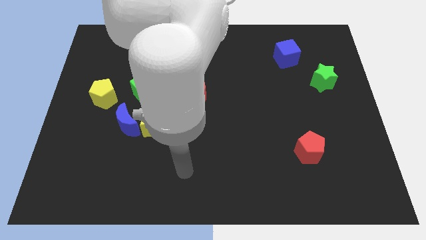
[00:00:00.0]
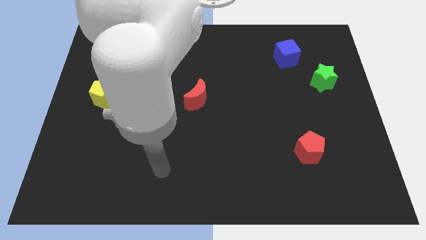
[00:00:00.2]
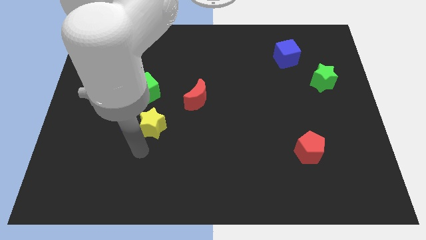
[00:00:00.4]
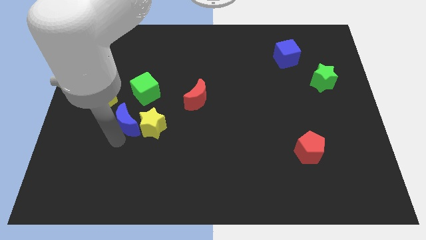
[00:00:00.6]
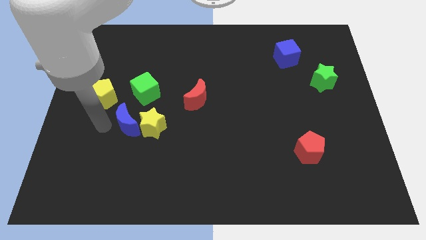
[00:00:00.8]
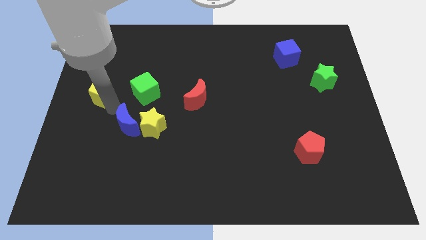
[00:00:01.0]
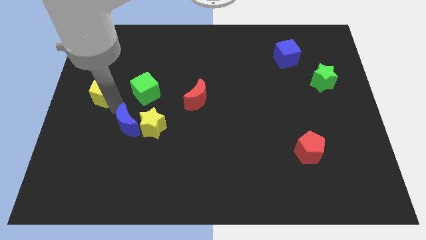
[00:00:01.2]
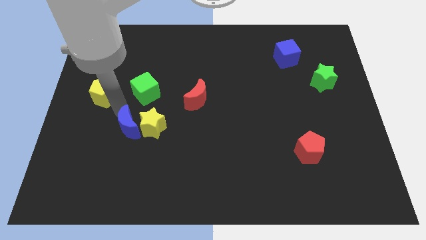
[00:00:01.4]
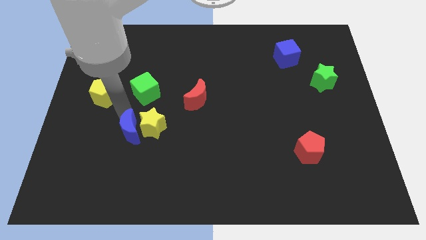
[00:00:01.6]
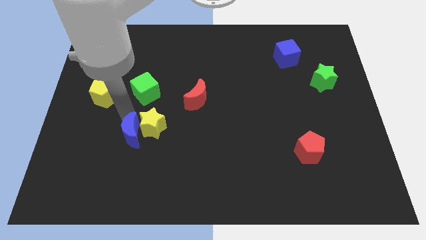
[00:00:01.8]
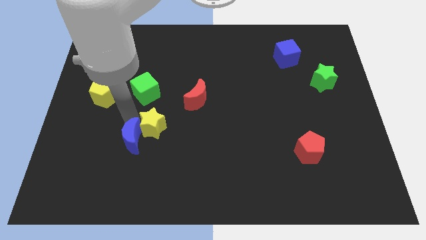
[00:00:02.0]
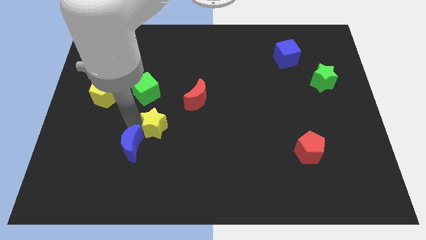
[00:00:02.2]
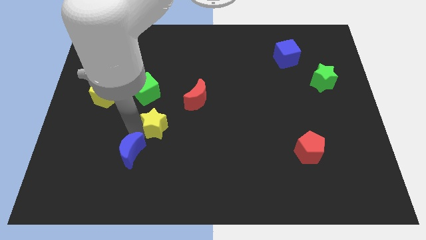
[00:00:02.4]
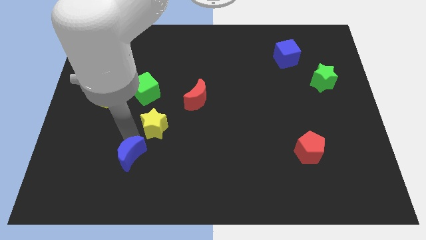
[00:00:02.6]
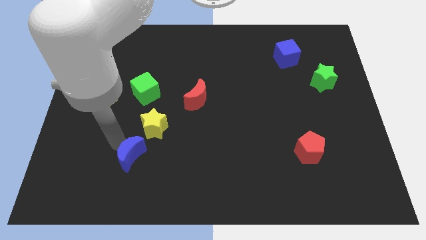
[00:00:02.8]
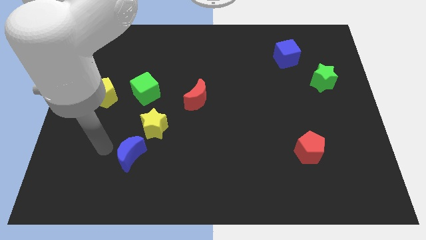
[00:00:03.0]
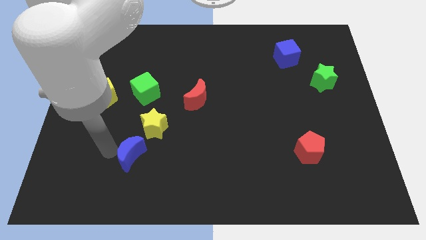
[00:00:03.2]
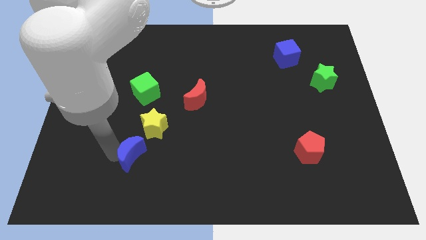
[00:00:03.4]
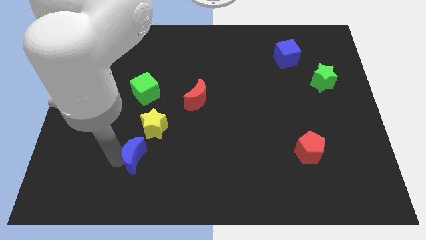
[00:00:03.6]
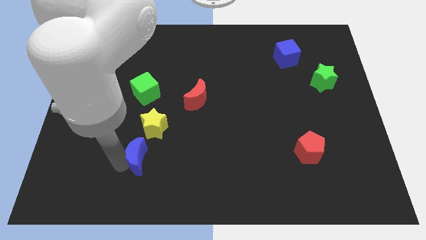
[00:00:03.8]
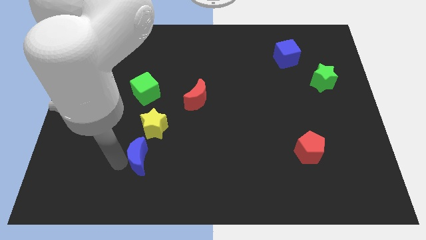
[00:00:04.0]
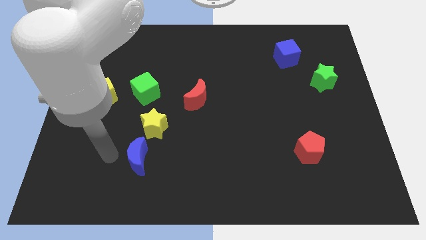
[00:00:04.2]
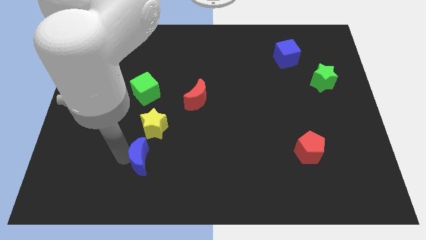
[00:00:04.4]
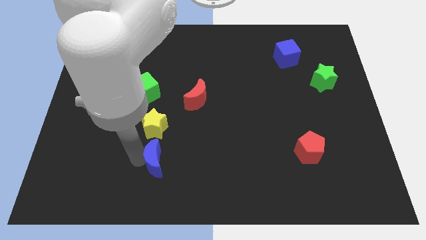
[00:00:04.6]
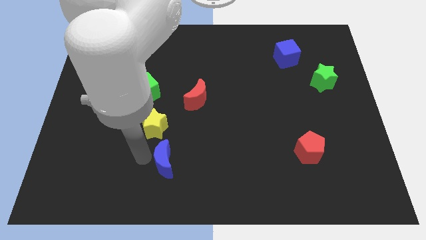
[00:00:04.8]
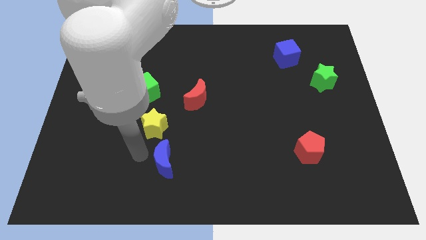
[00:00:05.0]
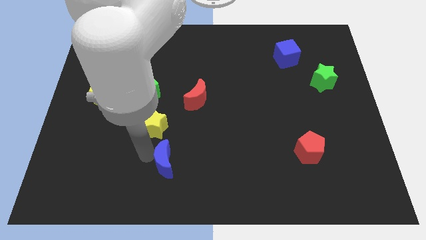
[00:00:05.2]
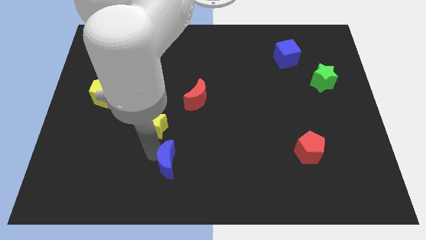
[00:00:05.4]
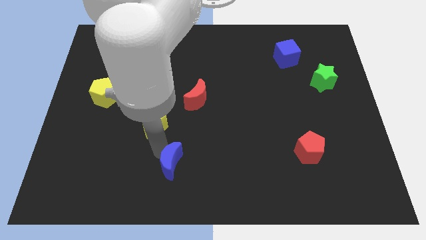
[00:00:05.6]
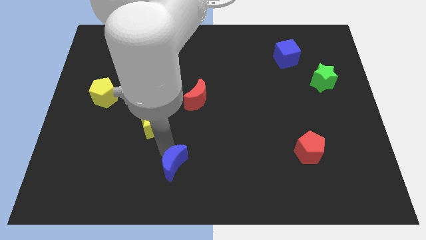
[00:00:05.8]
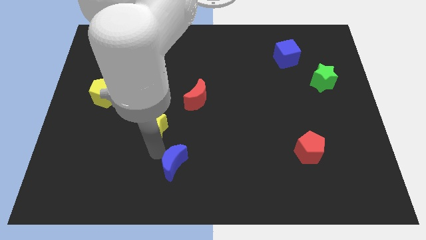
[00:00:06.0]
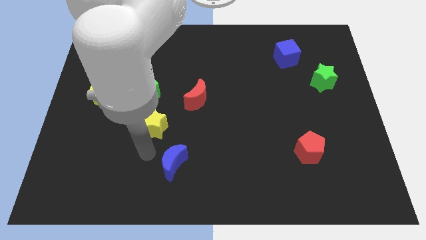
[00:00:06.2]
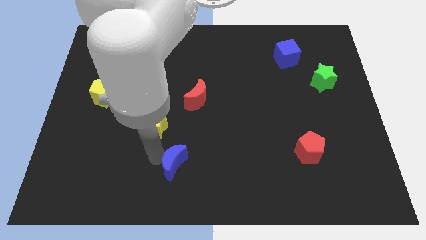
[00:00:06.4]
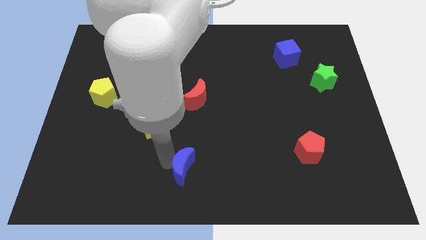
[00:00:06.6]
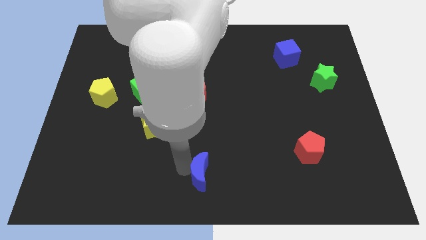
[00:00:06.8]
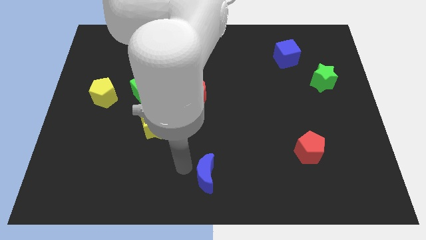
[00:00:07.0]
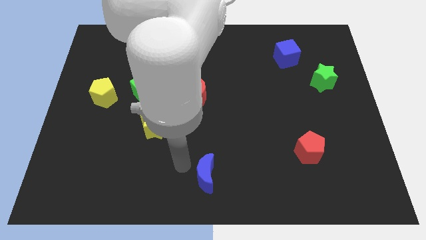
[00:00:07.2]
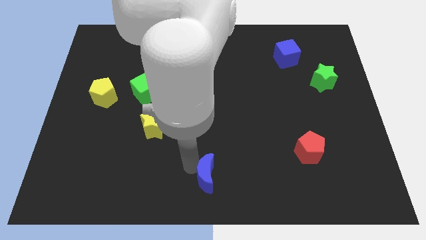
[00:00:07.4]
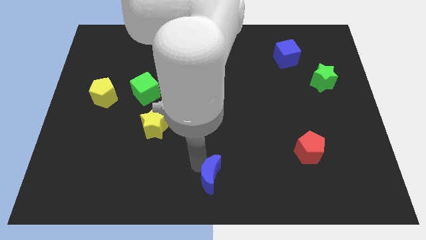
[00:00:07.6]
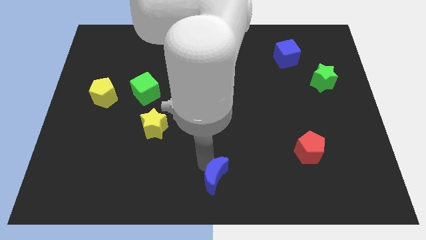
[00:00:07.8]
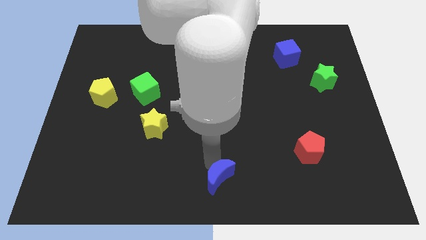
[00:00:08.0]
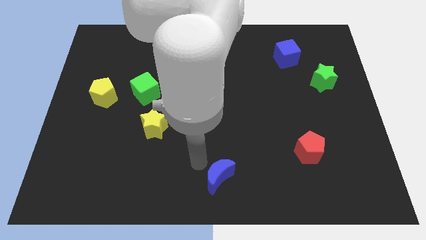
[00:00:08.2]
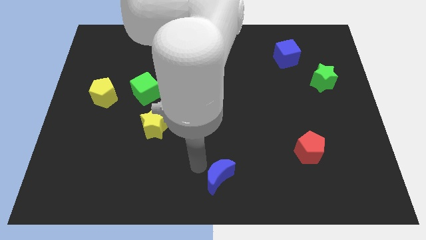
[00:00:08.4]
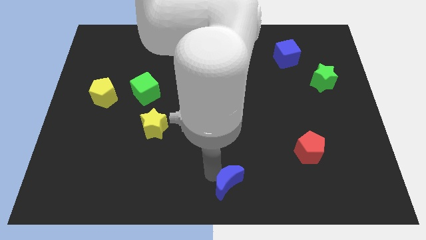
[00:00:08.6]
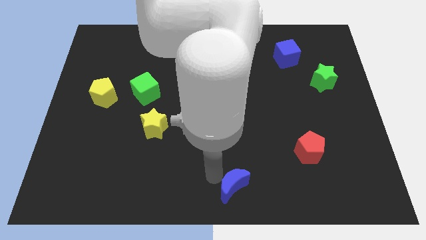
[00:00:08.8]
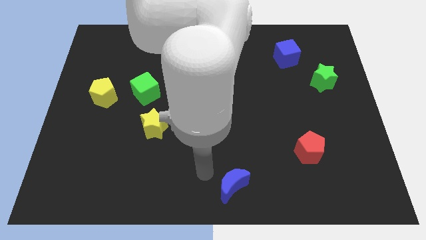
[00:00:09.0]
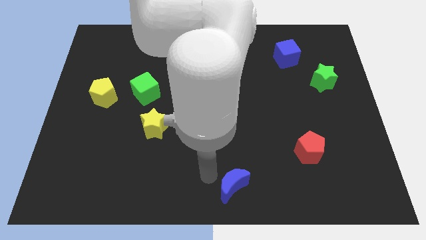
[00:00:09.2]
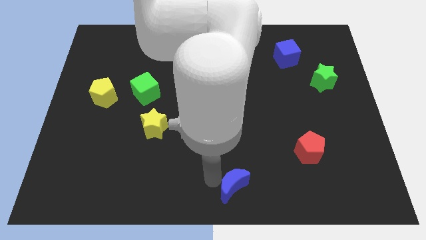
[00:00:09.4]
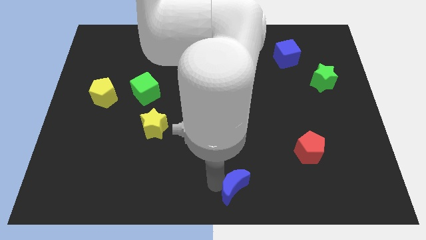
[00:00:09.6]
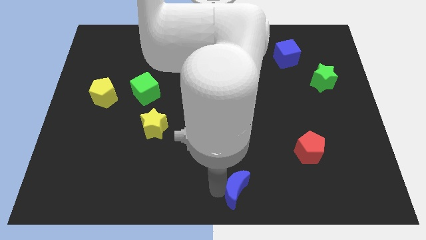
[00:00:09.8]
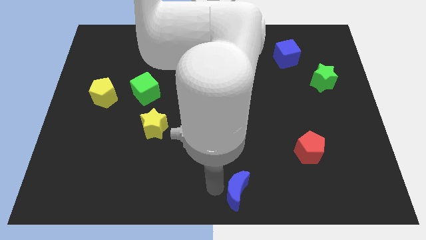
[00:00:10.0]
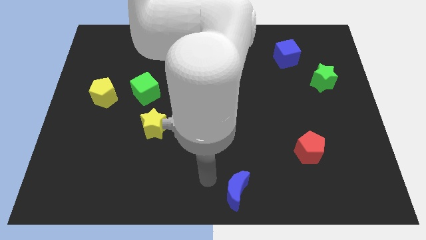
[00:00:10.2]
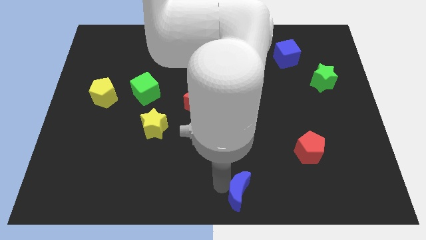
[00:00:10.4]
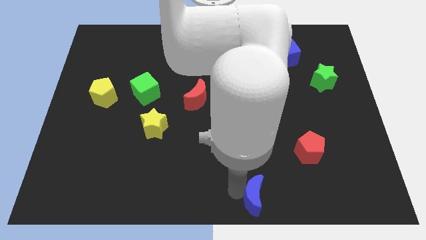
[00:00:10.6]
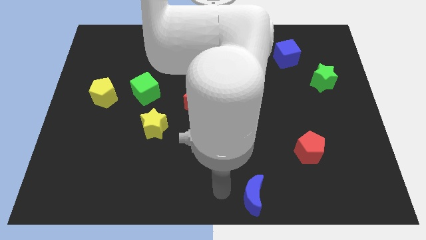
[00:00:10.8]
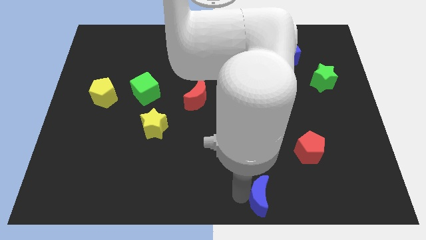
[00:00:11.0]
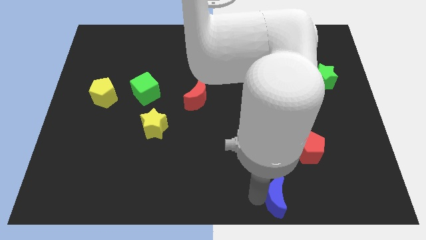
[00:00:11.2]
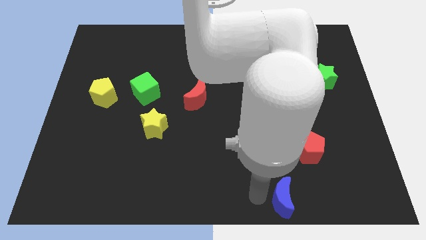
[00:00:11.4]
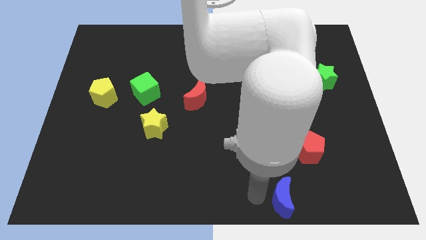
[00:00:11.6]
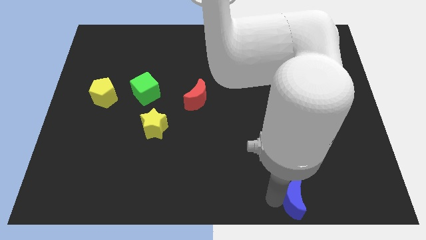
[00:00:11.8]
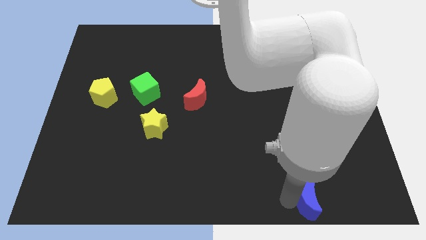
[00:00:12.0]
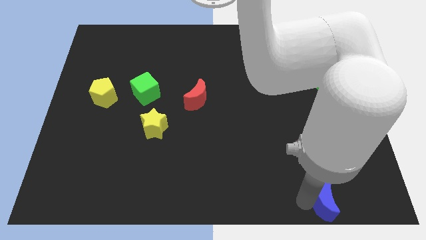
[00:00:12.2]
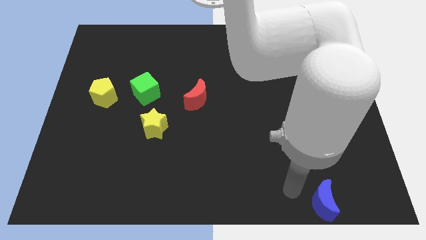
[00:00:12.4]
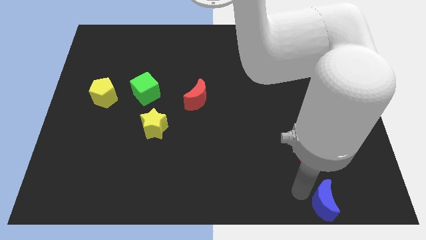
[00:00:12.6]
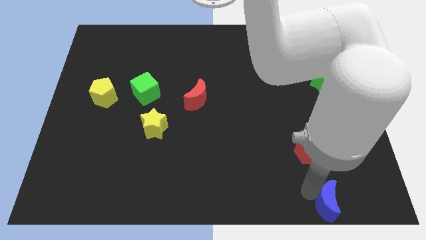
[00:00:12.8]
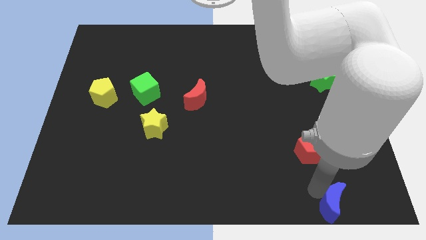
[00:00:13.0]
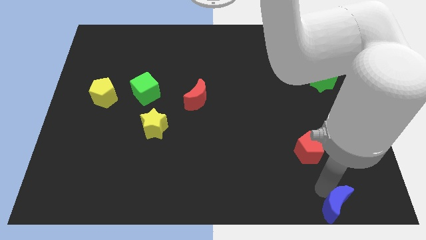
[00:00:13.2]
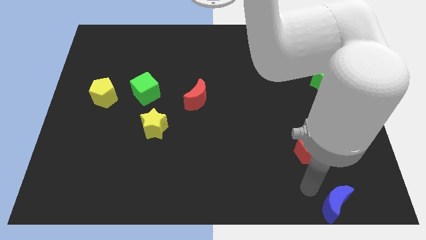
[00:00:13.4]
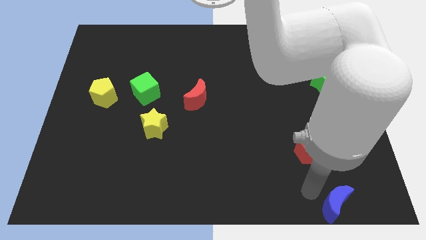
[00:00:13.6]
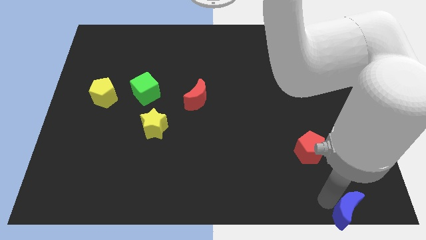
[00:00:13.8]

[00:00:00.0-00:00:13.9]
slide the blue moon to the bottom right of the board
